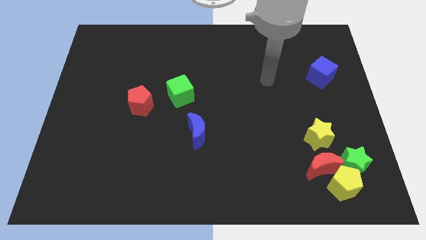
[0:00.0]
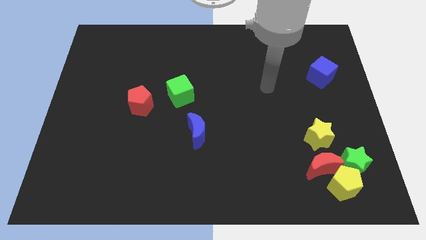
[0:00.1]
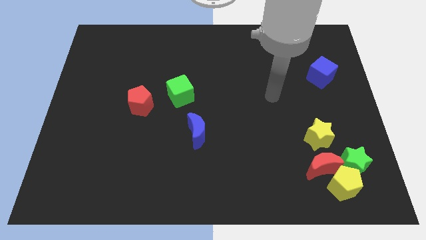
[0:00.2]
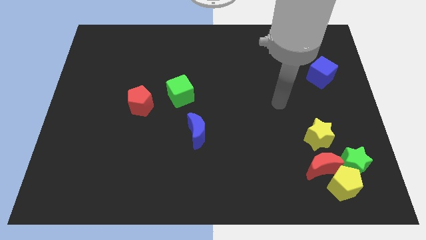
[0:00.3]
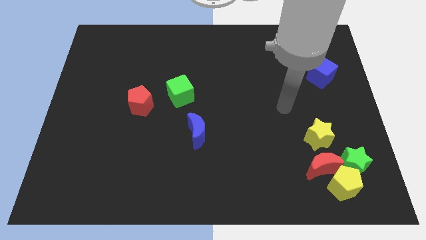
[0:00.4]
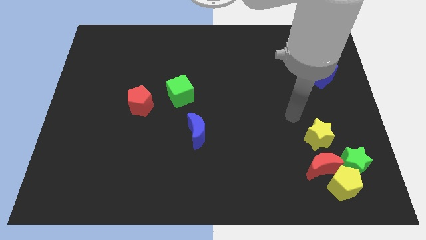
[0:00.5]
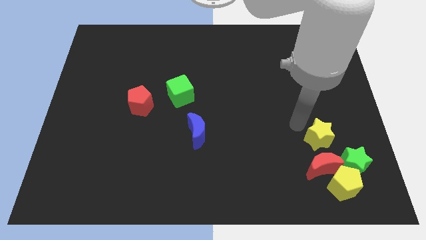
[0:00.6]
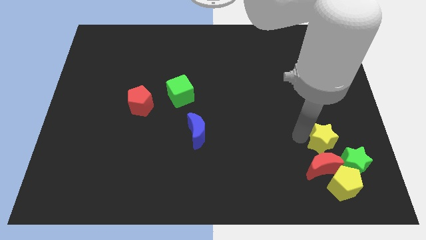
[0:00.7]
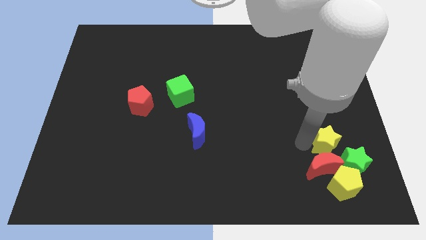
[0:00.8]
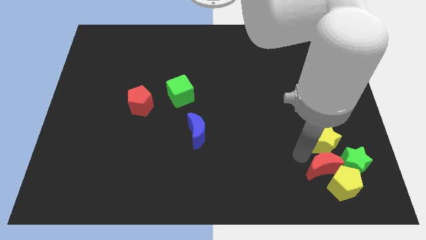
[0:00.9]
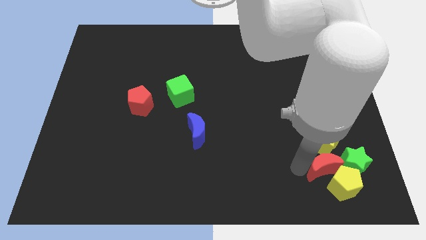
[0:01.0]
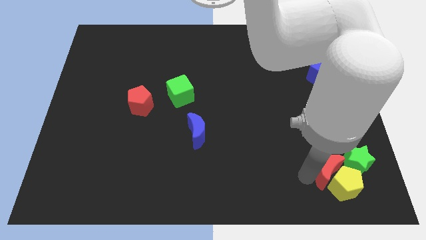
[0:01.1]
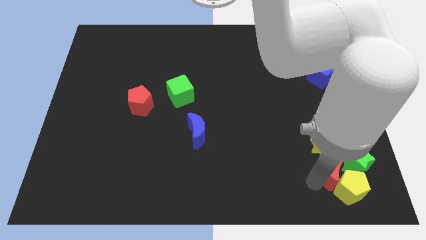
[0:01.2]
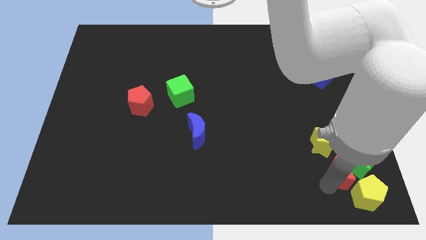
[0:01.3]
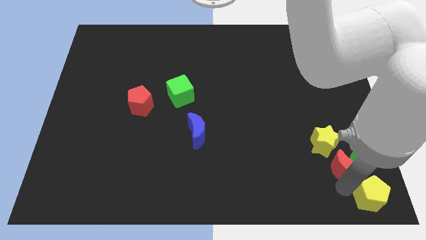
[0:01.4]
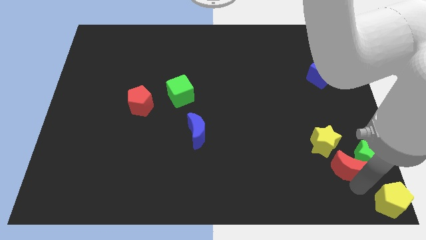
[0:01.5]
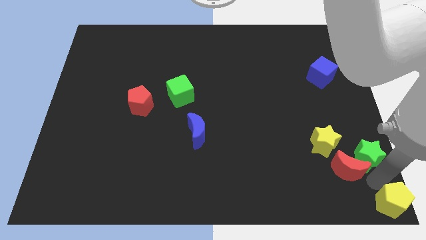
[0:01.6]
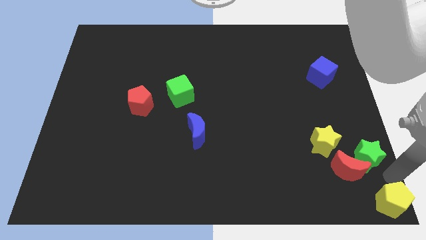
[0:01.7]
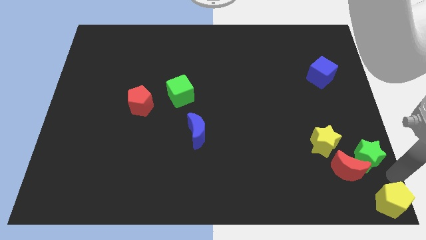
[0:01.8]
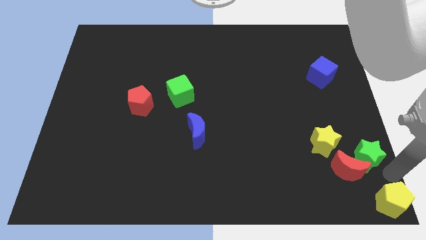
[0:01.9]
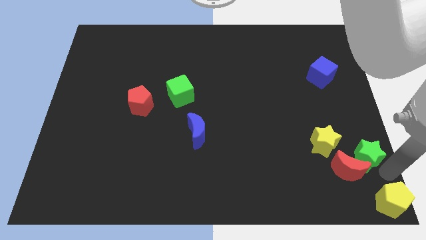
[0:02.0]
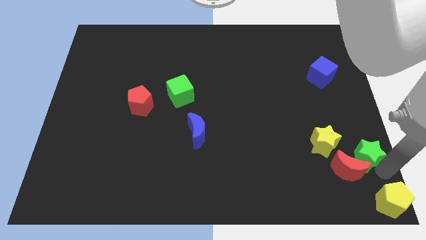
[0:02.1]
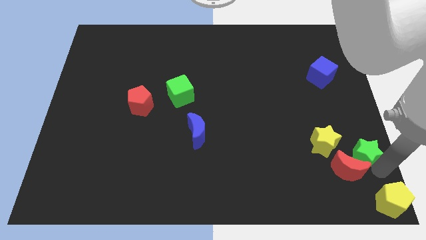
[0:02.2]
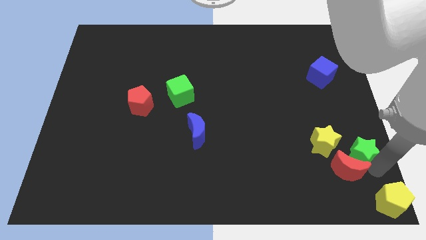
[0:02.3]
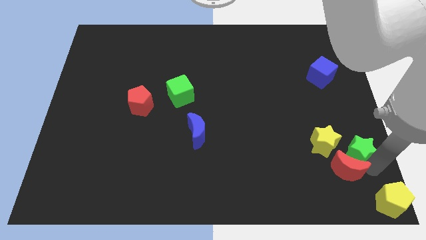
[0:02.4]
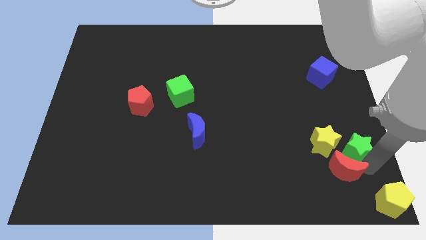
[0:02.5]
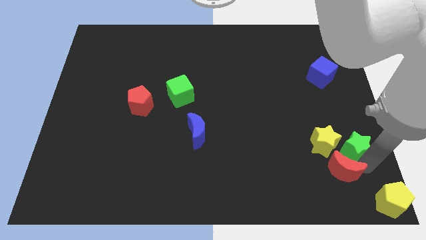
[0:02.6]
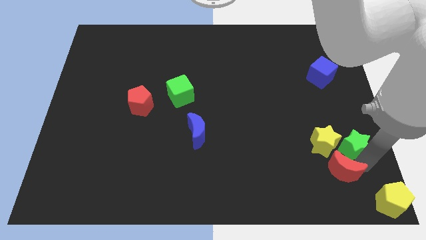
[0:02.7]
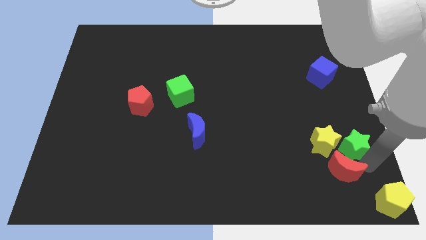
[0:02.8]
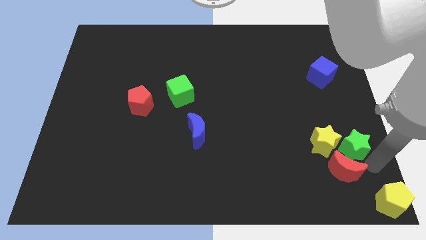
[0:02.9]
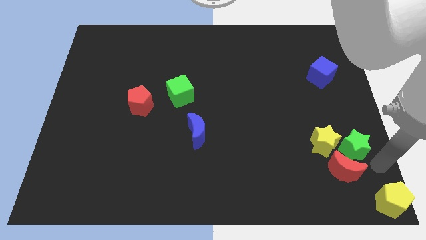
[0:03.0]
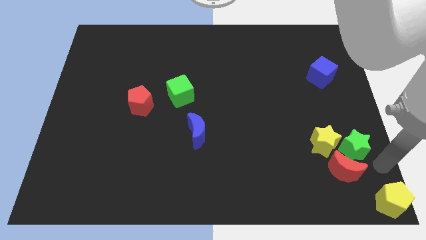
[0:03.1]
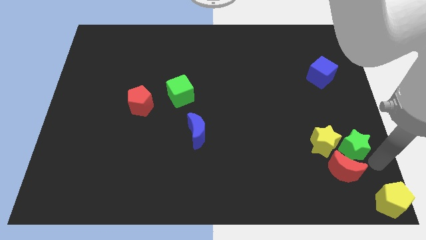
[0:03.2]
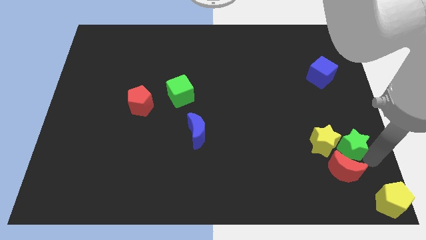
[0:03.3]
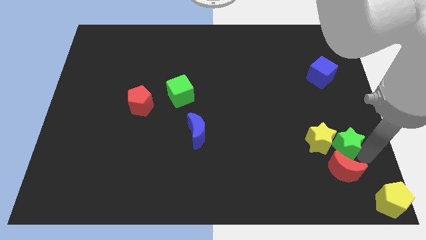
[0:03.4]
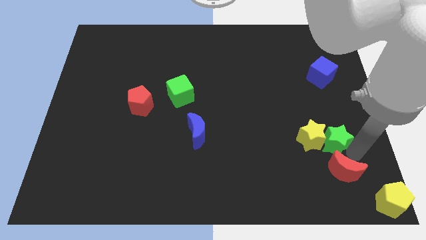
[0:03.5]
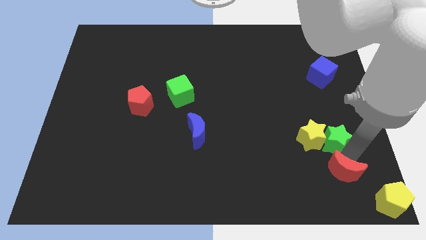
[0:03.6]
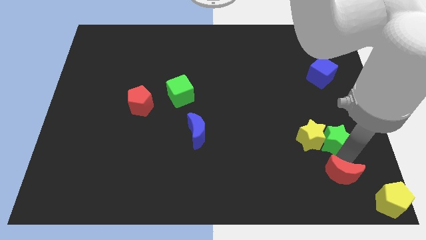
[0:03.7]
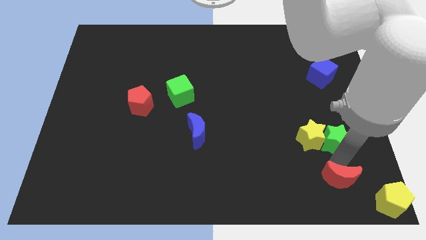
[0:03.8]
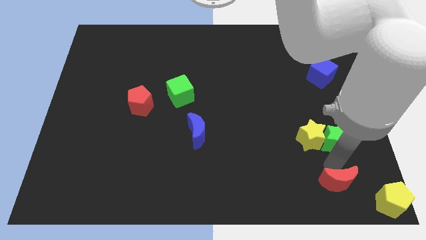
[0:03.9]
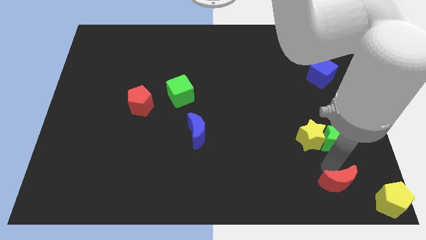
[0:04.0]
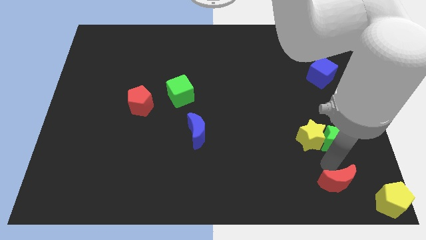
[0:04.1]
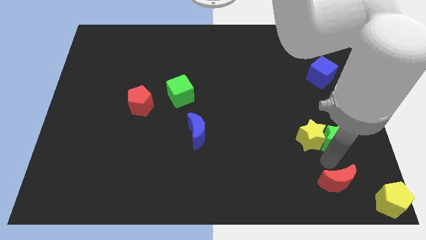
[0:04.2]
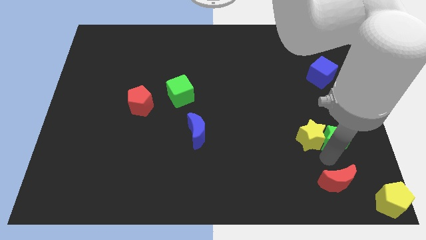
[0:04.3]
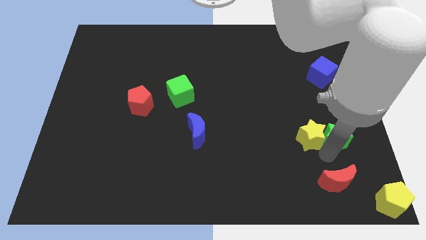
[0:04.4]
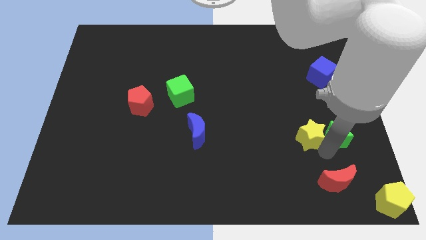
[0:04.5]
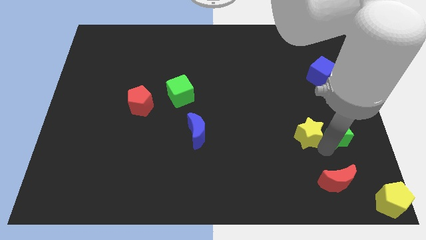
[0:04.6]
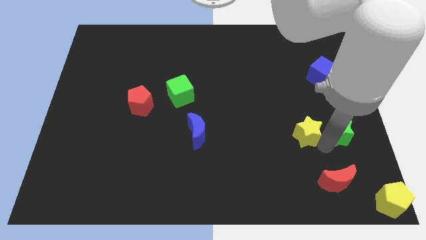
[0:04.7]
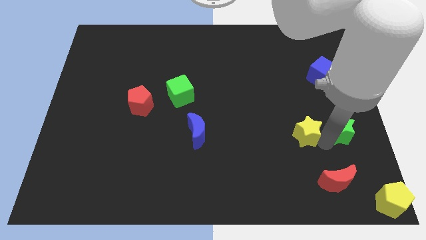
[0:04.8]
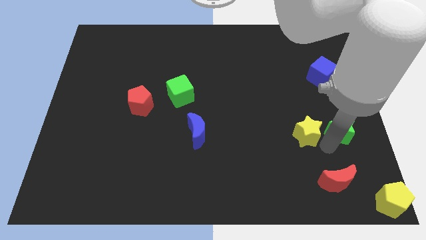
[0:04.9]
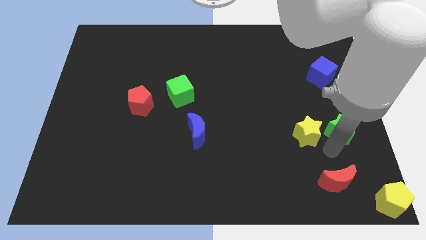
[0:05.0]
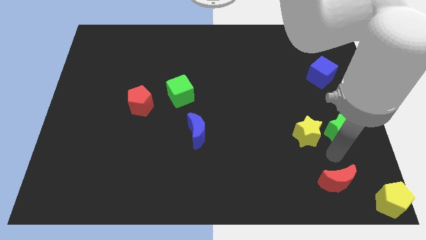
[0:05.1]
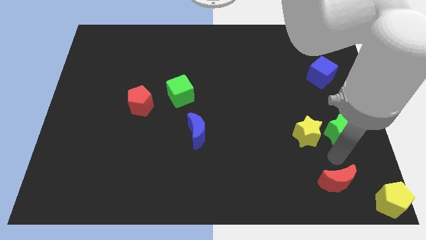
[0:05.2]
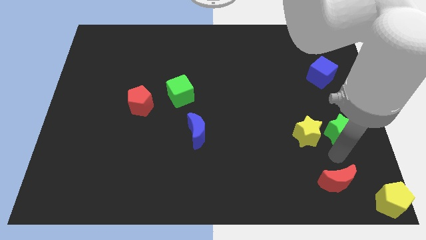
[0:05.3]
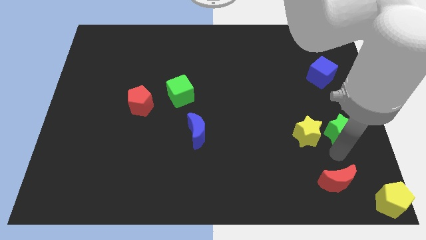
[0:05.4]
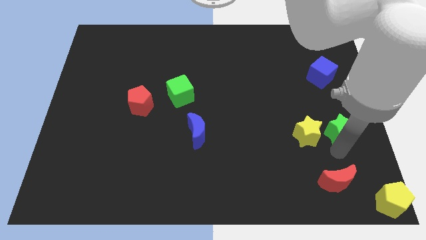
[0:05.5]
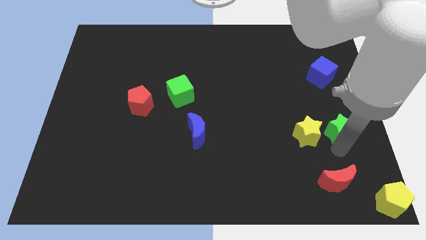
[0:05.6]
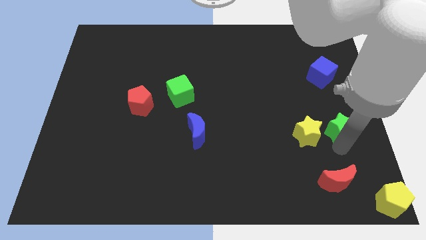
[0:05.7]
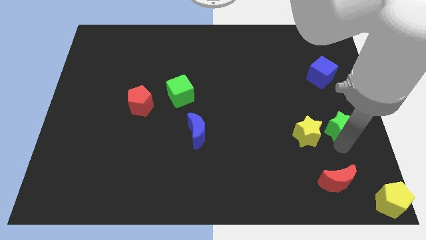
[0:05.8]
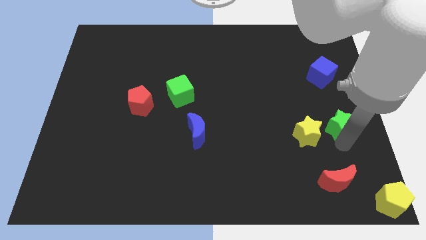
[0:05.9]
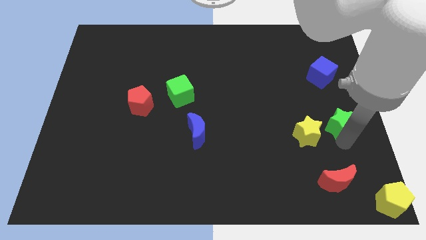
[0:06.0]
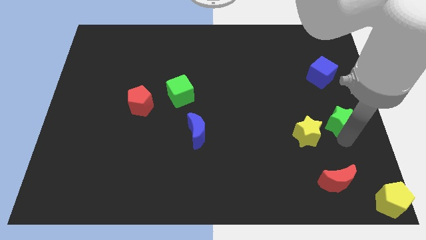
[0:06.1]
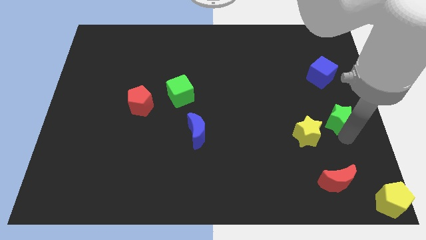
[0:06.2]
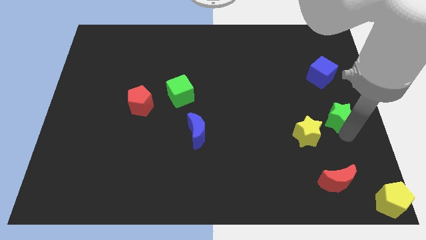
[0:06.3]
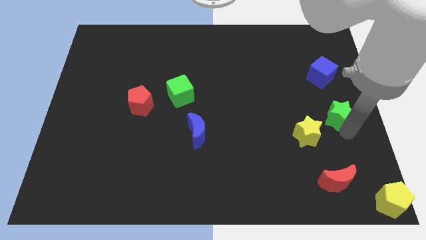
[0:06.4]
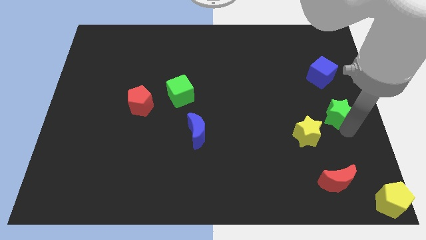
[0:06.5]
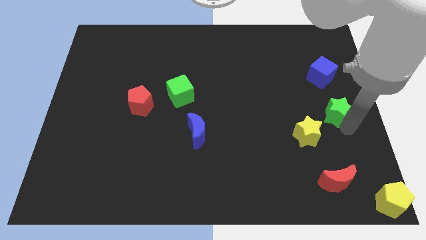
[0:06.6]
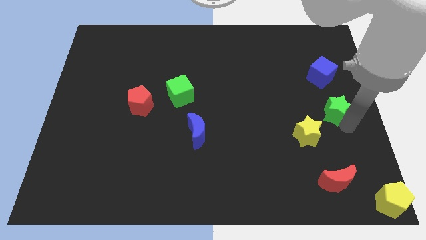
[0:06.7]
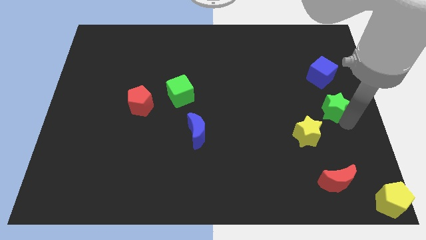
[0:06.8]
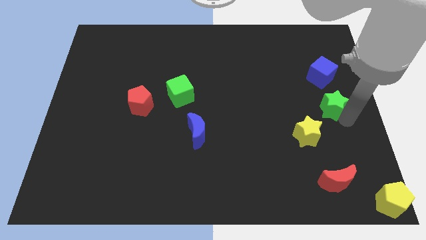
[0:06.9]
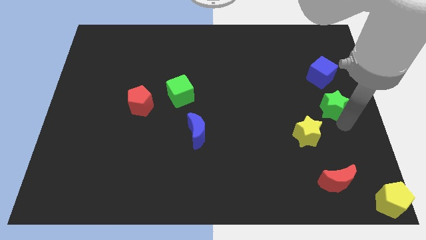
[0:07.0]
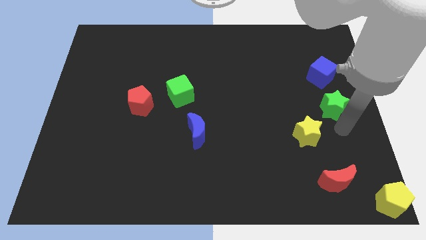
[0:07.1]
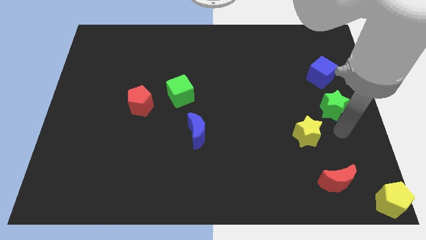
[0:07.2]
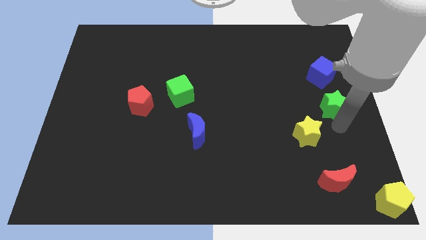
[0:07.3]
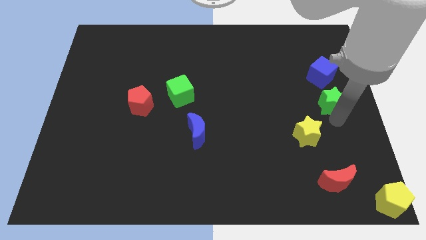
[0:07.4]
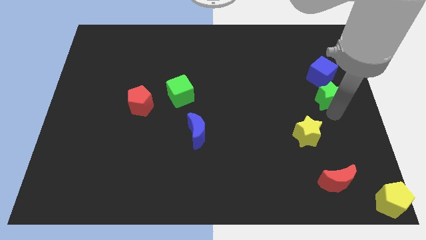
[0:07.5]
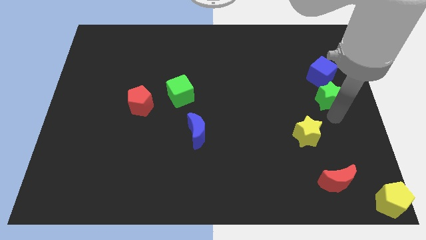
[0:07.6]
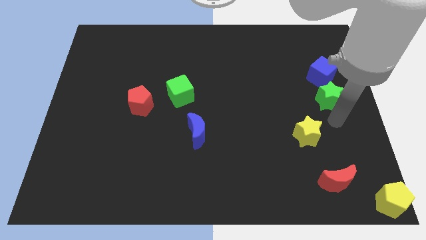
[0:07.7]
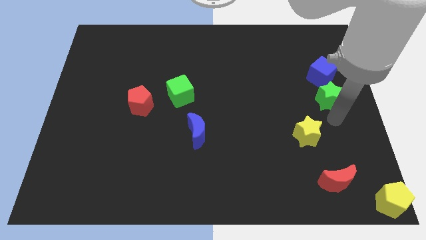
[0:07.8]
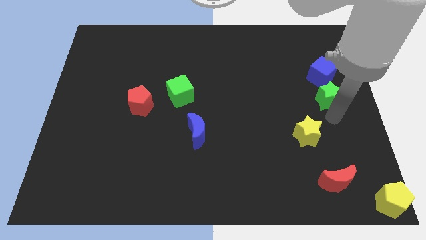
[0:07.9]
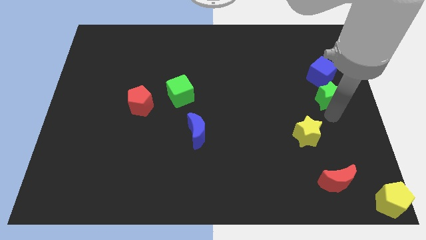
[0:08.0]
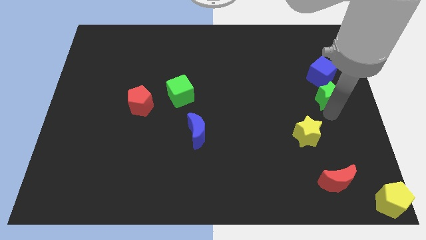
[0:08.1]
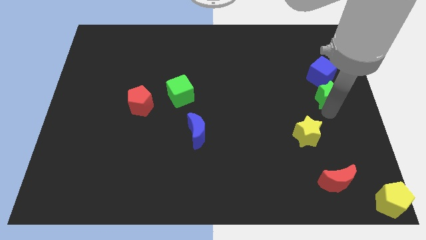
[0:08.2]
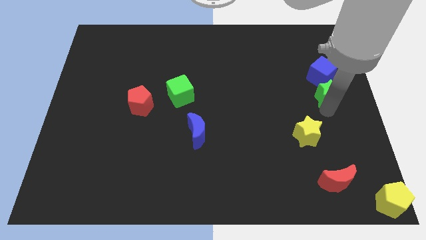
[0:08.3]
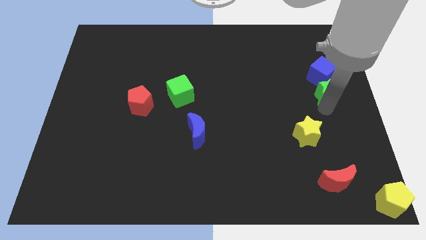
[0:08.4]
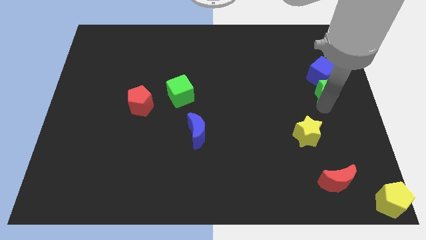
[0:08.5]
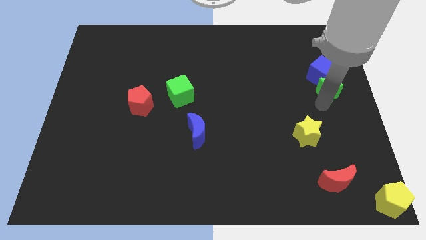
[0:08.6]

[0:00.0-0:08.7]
put the green star next to the blue cube
